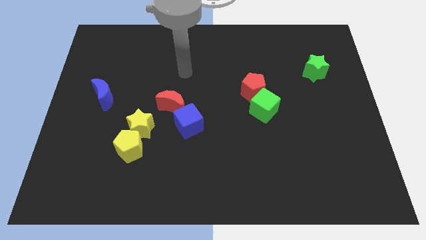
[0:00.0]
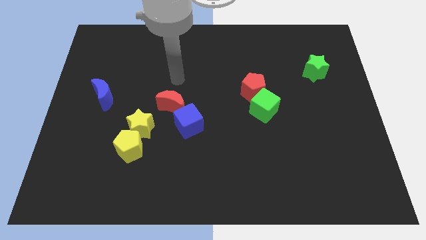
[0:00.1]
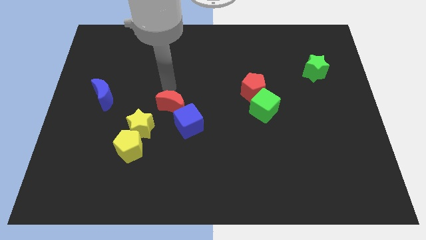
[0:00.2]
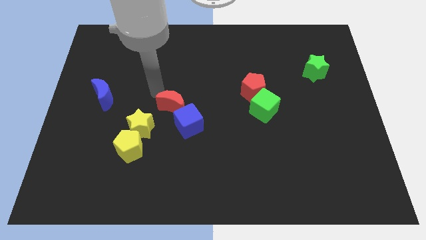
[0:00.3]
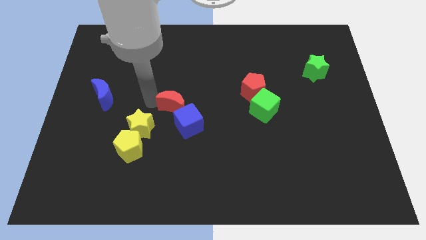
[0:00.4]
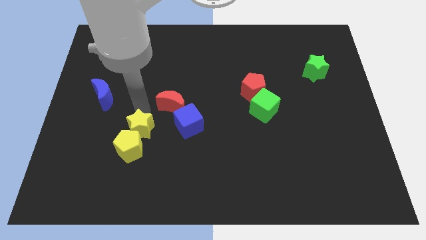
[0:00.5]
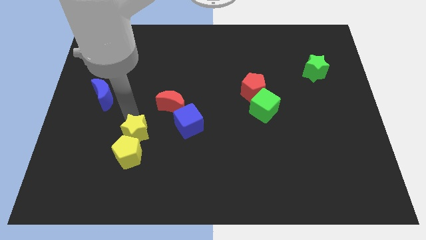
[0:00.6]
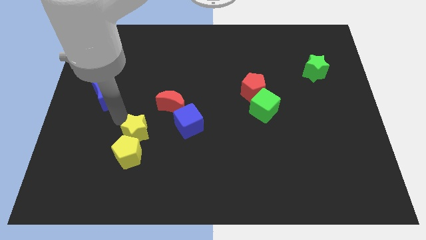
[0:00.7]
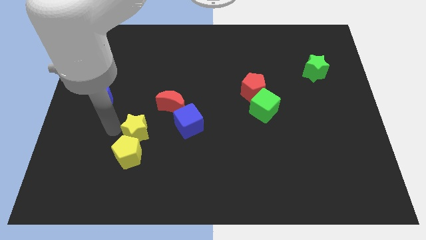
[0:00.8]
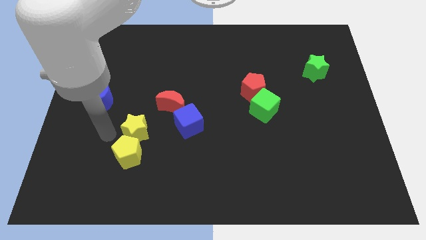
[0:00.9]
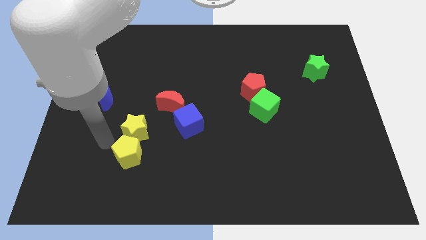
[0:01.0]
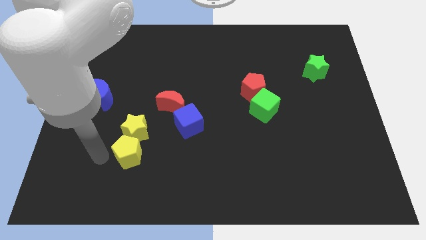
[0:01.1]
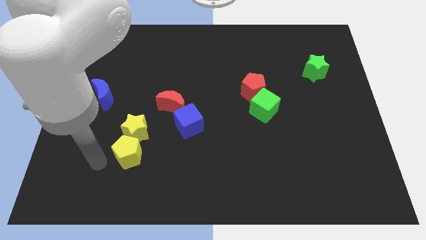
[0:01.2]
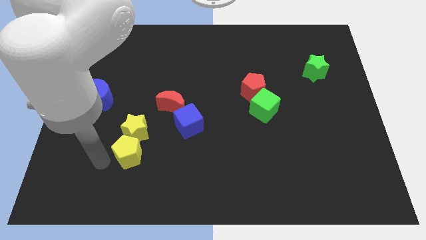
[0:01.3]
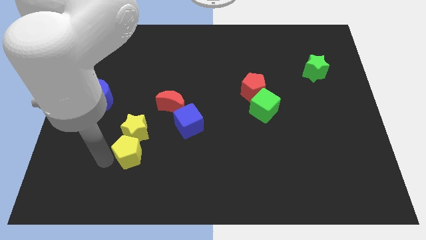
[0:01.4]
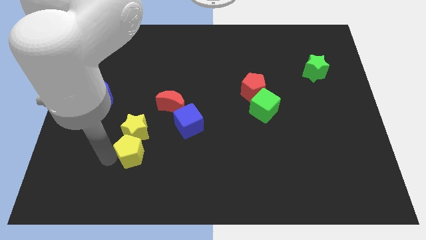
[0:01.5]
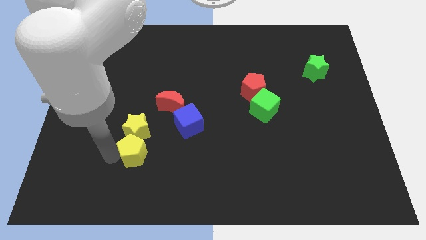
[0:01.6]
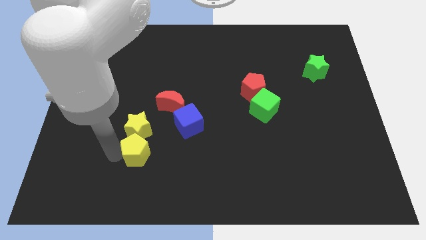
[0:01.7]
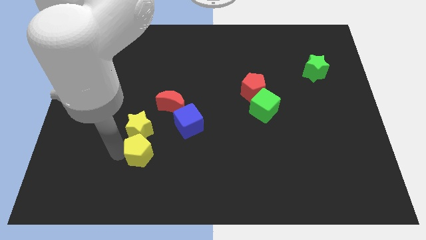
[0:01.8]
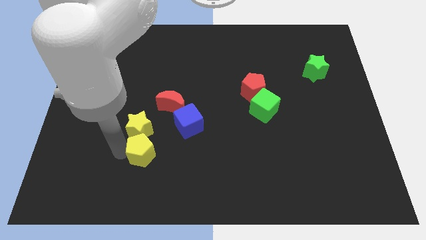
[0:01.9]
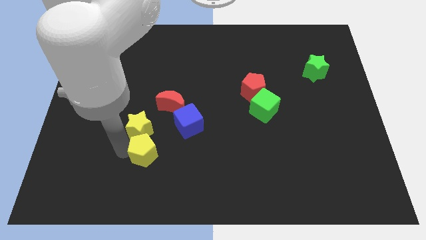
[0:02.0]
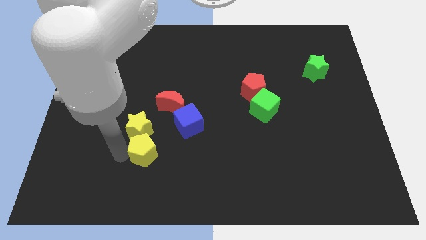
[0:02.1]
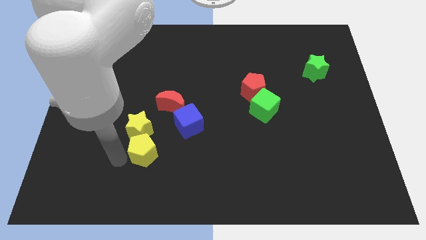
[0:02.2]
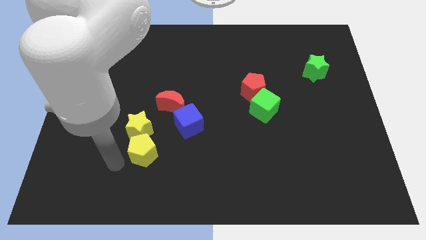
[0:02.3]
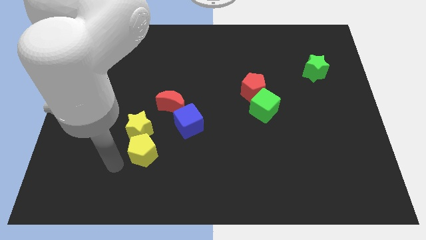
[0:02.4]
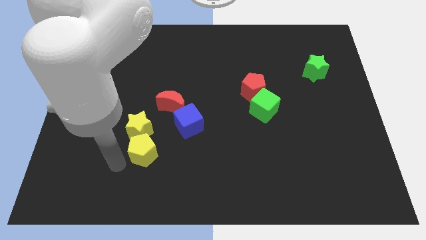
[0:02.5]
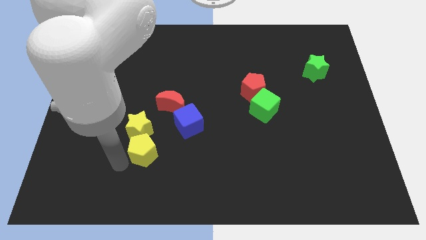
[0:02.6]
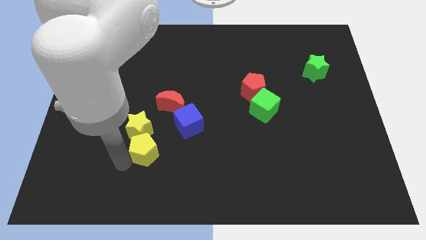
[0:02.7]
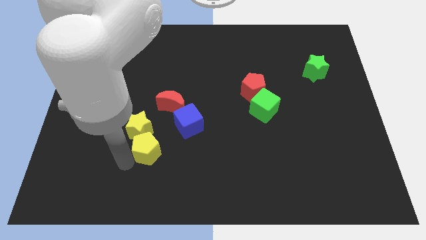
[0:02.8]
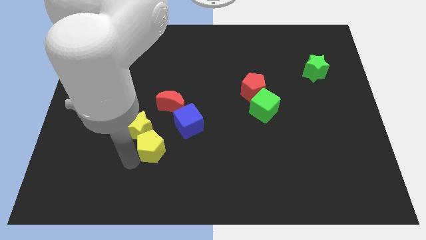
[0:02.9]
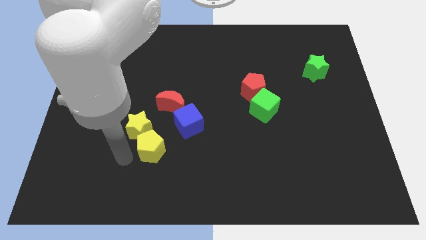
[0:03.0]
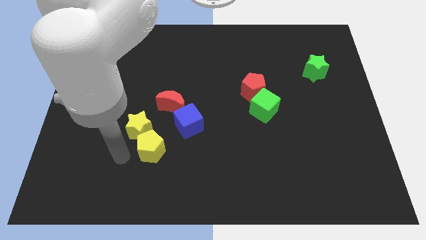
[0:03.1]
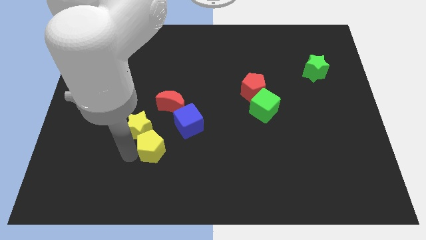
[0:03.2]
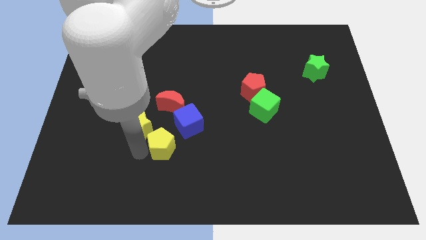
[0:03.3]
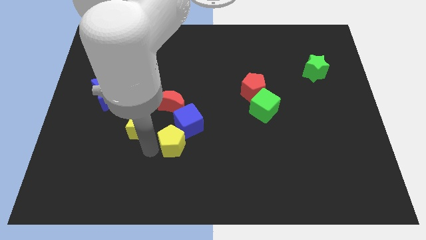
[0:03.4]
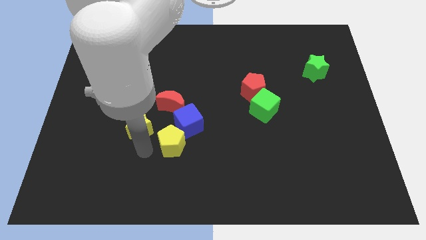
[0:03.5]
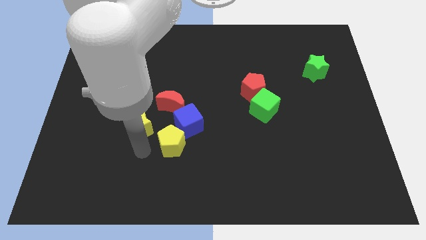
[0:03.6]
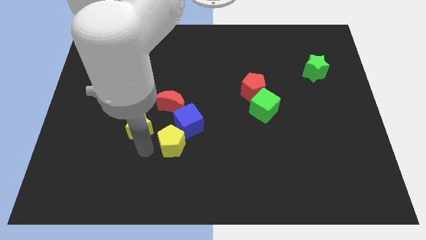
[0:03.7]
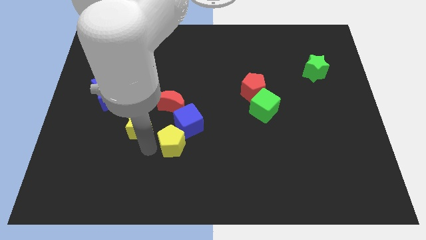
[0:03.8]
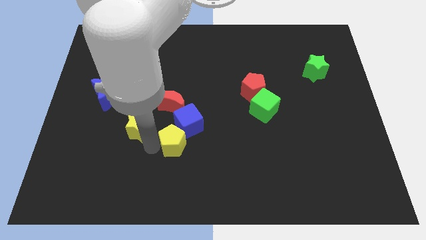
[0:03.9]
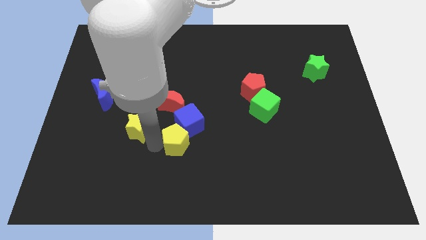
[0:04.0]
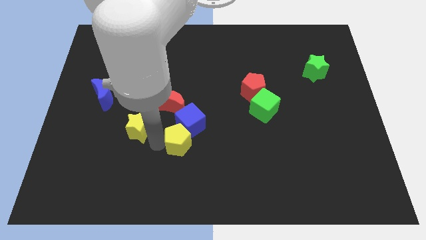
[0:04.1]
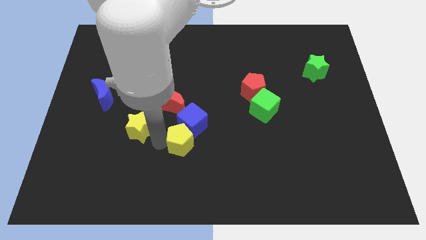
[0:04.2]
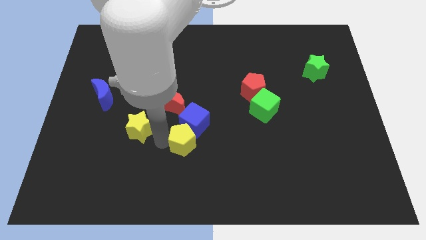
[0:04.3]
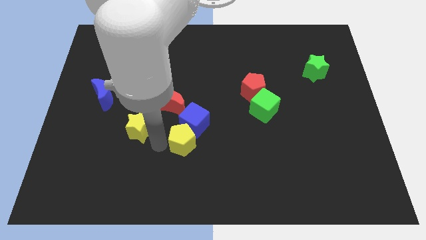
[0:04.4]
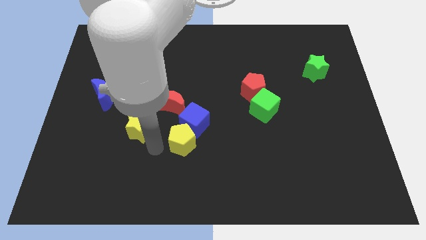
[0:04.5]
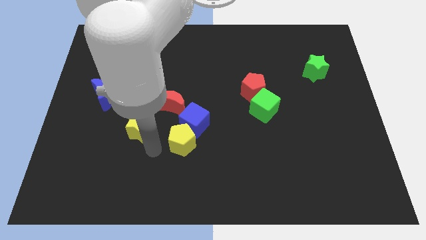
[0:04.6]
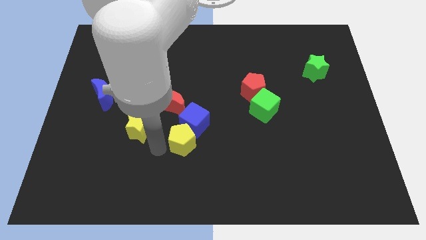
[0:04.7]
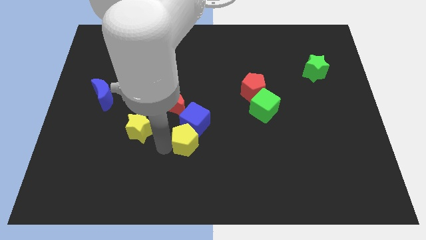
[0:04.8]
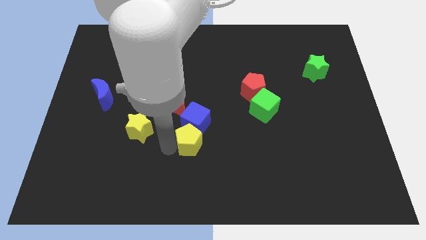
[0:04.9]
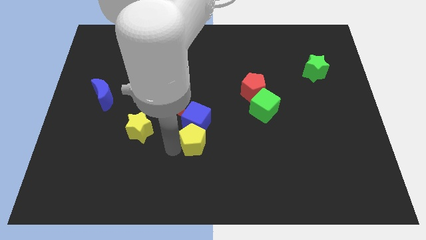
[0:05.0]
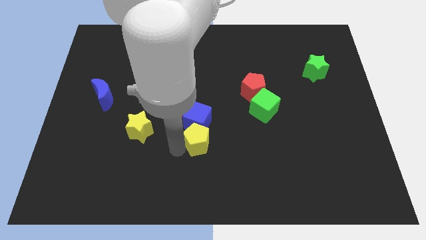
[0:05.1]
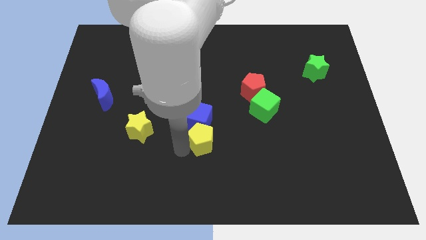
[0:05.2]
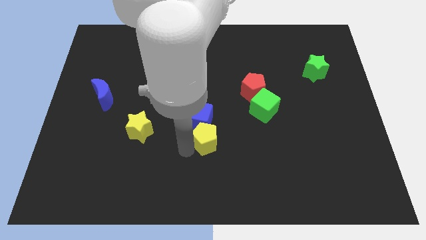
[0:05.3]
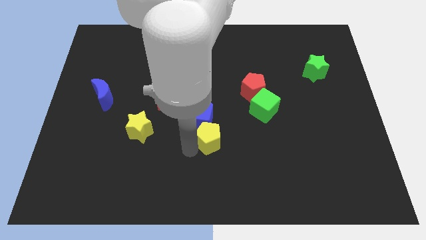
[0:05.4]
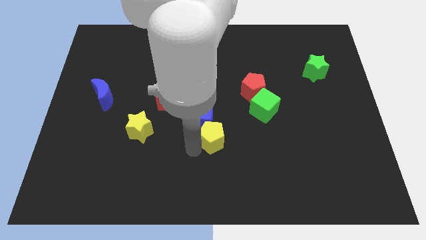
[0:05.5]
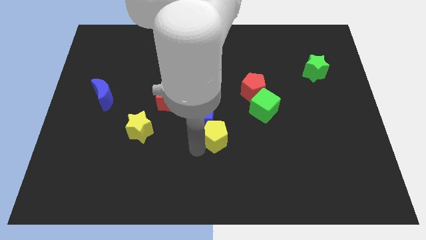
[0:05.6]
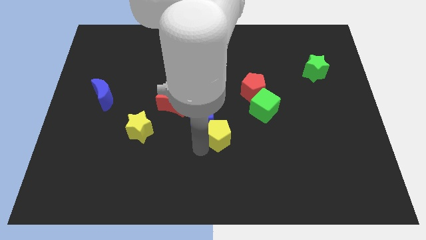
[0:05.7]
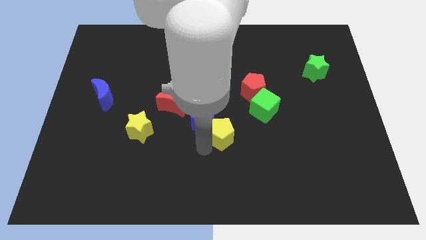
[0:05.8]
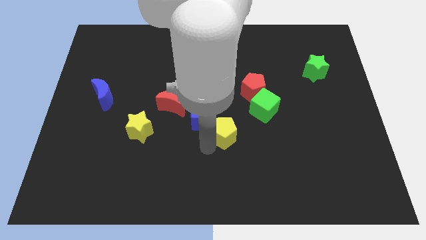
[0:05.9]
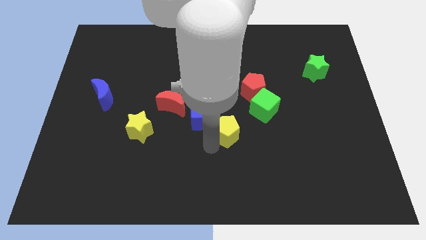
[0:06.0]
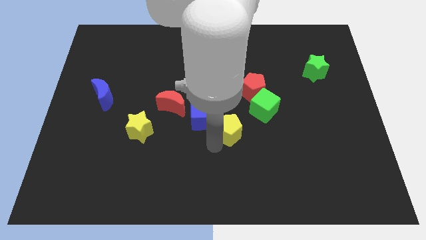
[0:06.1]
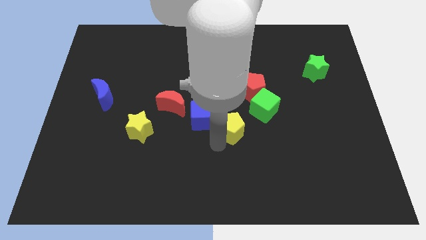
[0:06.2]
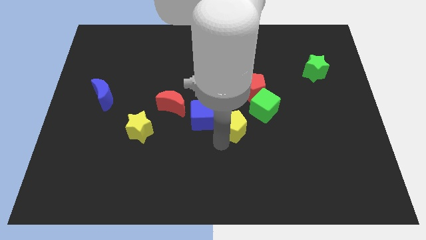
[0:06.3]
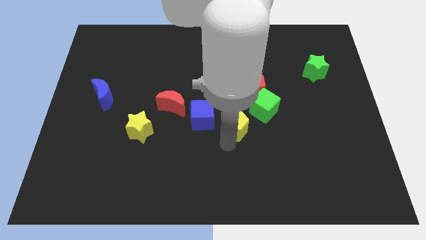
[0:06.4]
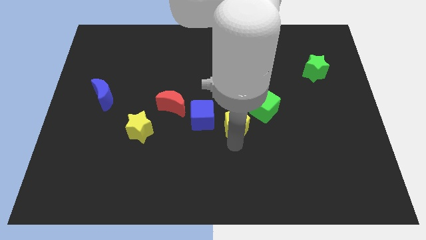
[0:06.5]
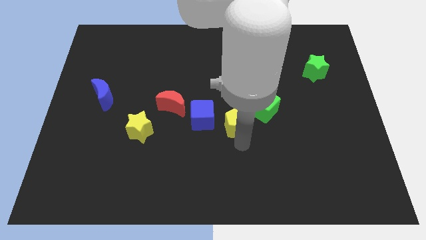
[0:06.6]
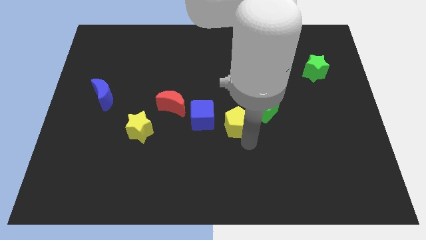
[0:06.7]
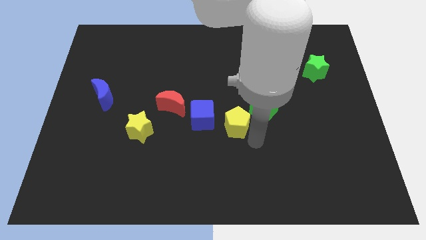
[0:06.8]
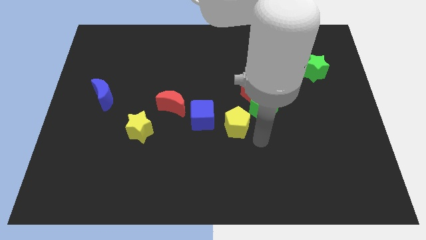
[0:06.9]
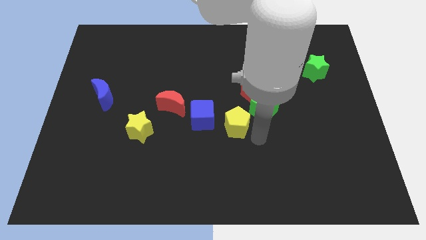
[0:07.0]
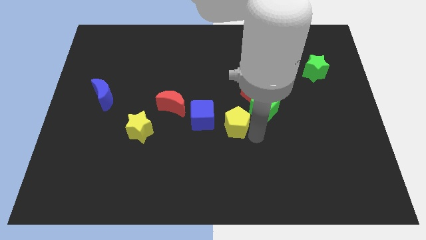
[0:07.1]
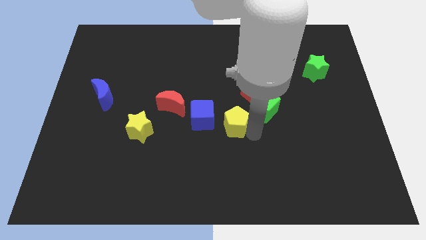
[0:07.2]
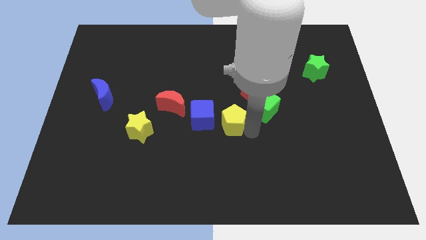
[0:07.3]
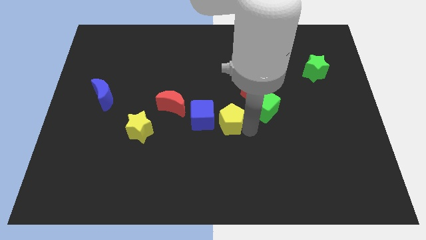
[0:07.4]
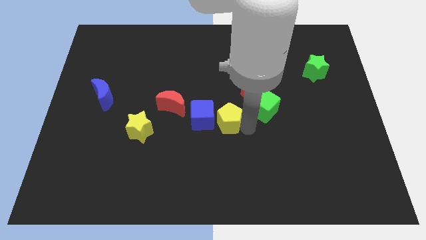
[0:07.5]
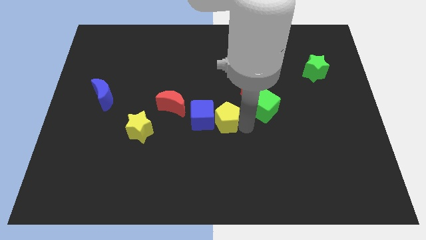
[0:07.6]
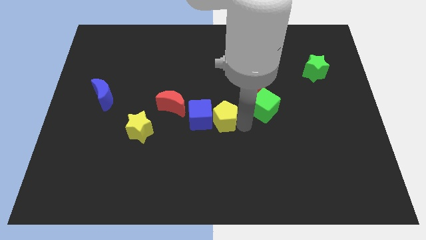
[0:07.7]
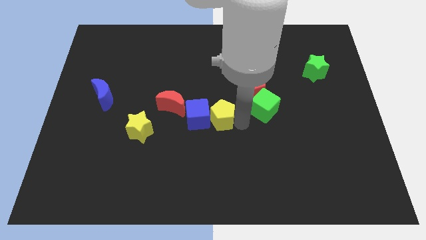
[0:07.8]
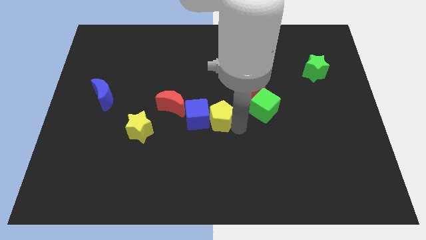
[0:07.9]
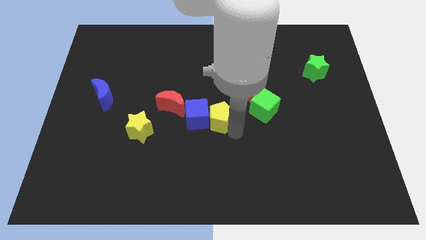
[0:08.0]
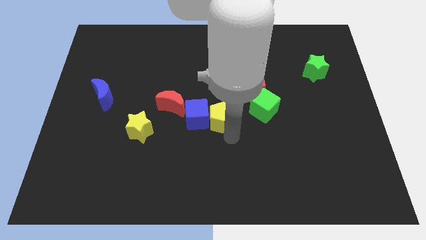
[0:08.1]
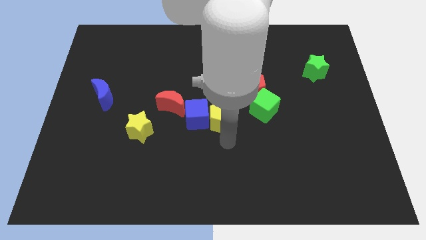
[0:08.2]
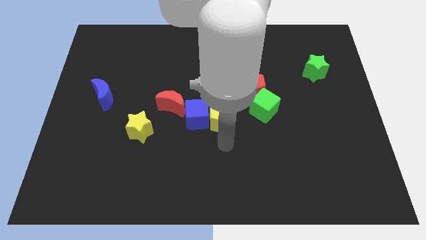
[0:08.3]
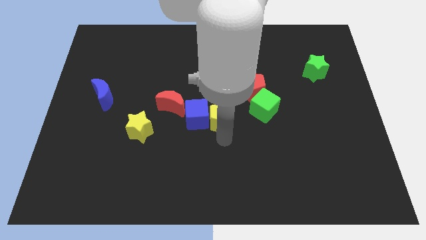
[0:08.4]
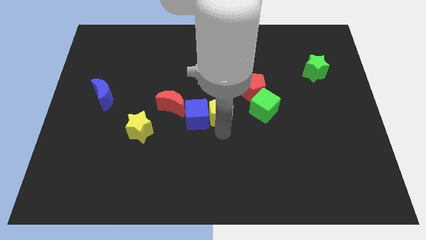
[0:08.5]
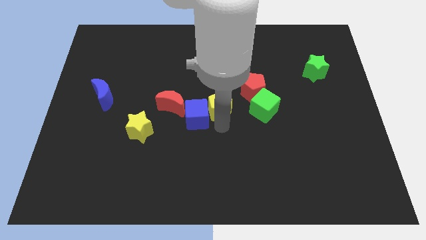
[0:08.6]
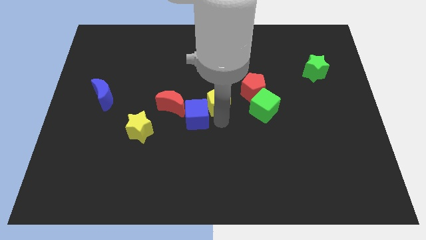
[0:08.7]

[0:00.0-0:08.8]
push the yellow pentagon up and right diagonally
